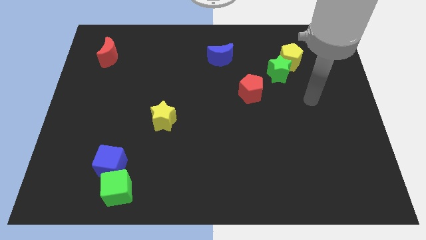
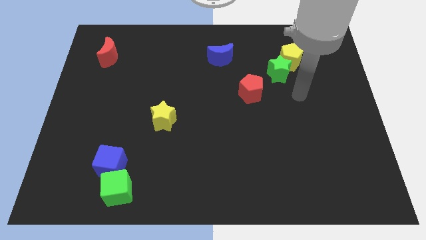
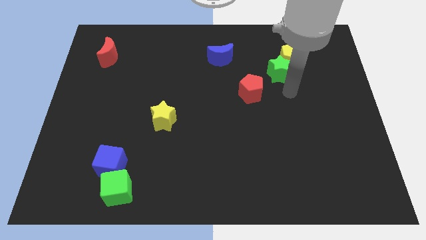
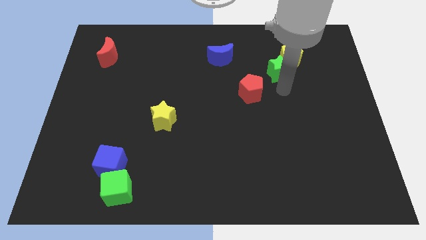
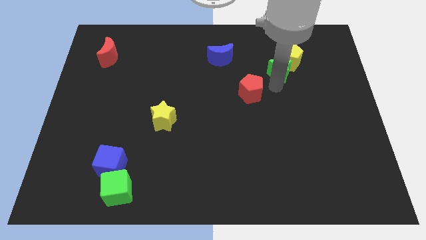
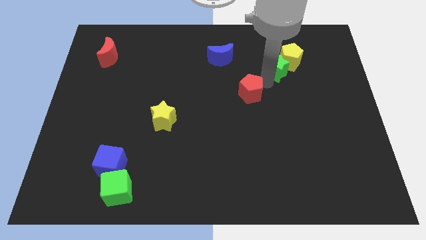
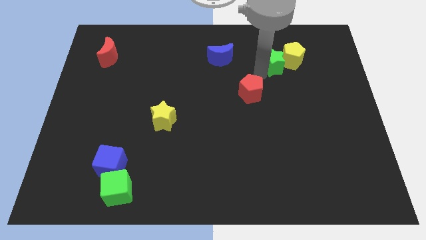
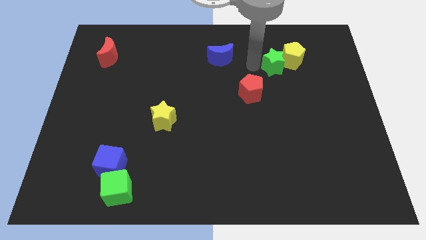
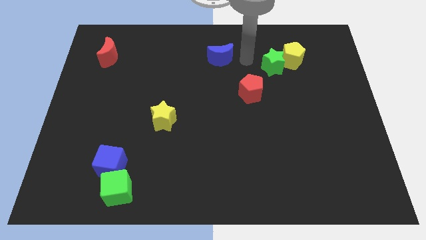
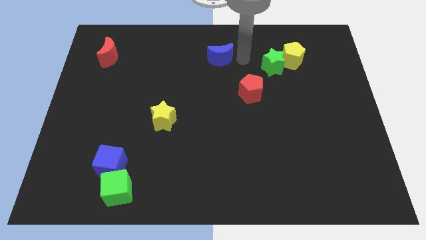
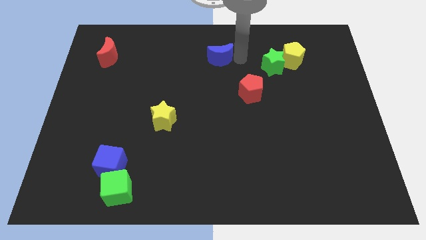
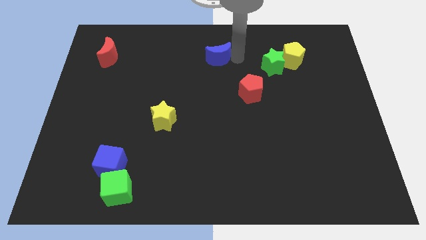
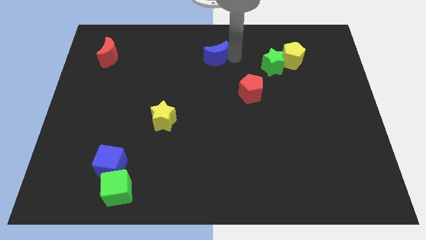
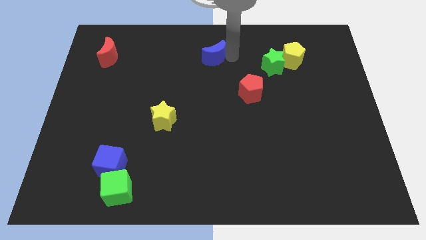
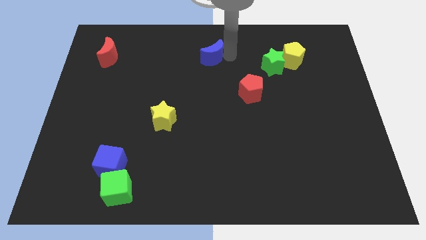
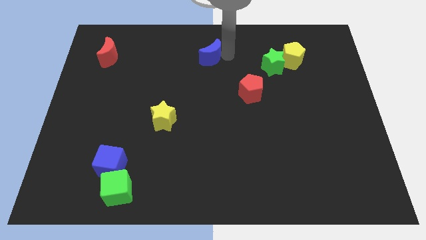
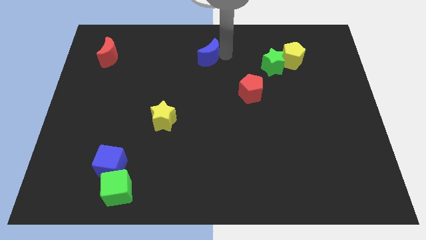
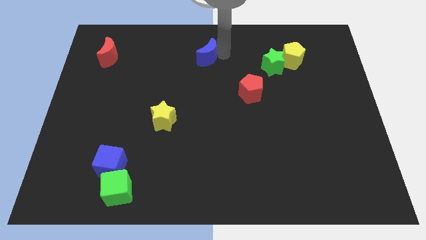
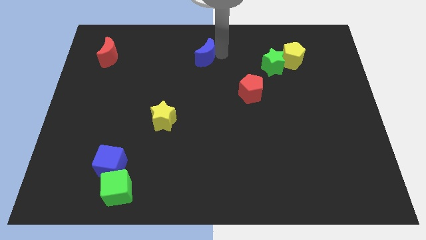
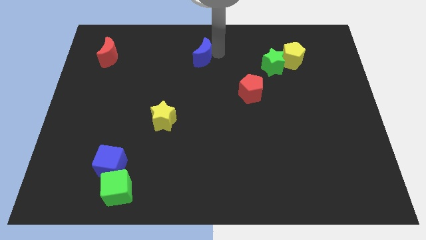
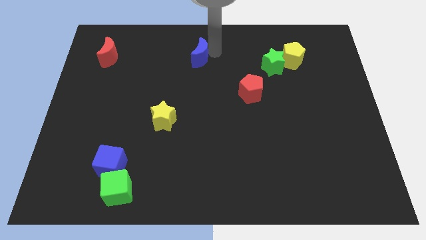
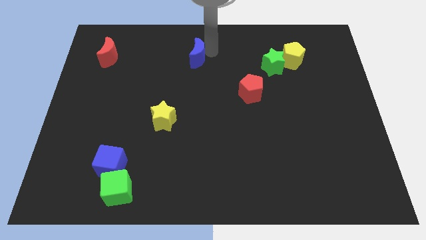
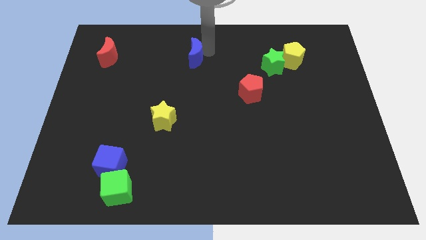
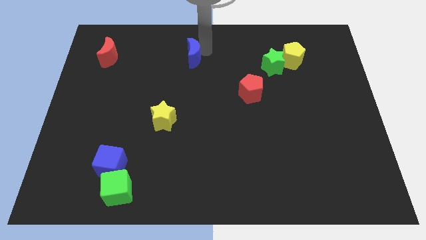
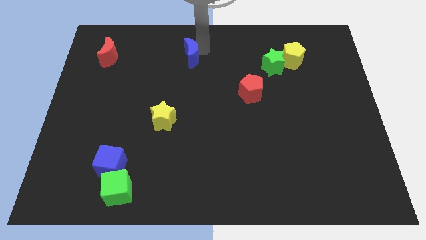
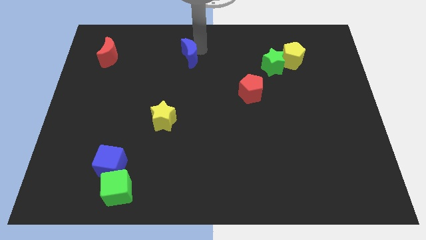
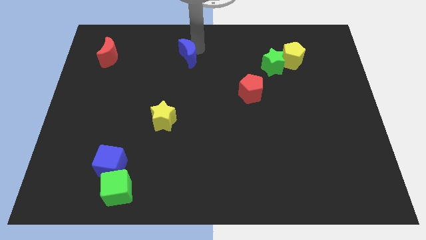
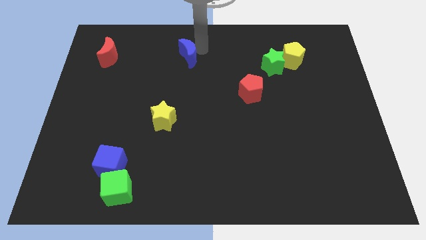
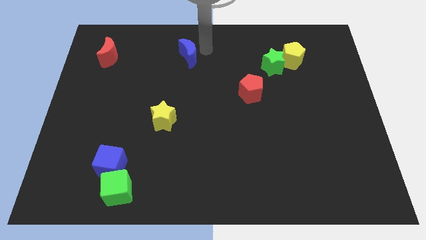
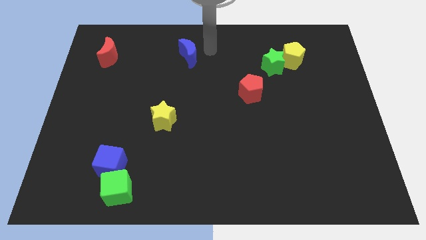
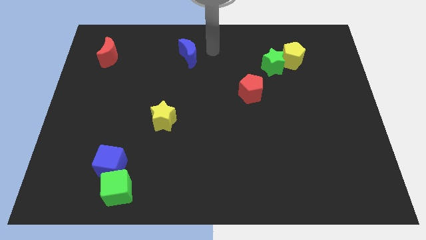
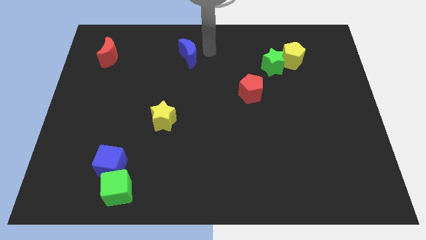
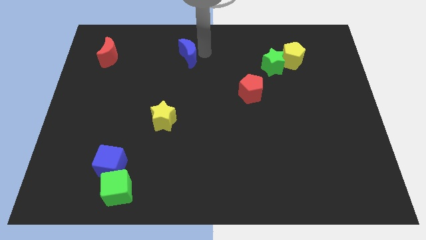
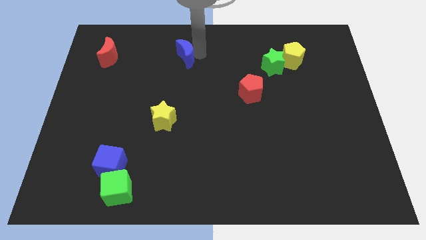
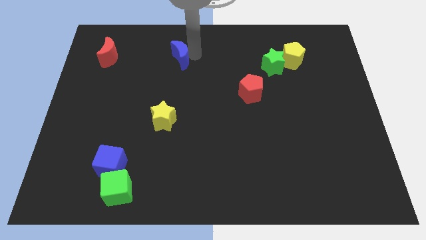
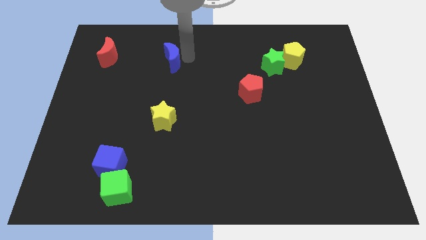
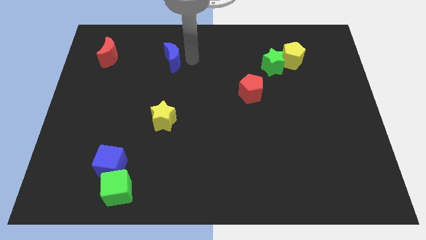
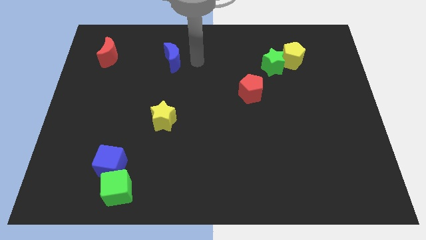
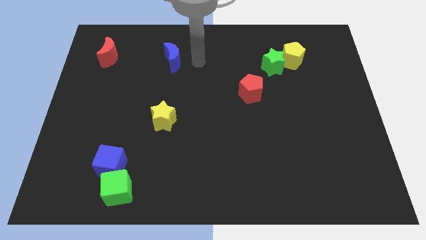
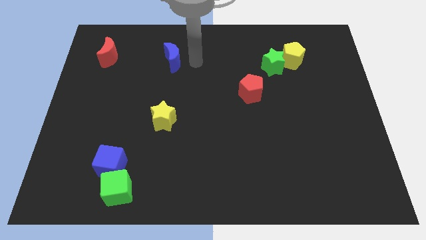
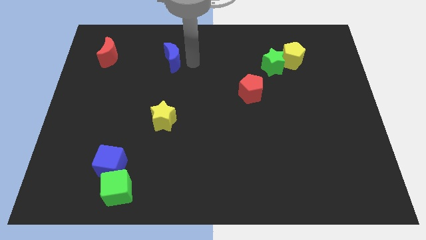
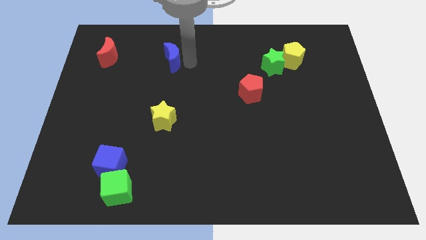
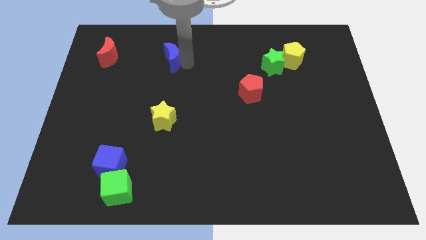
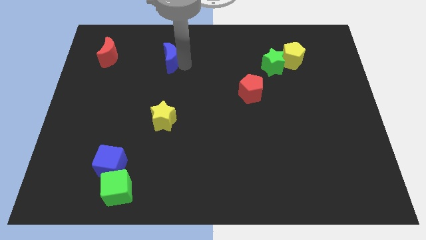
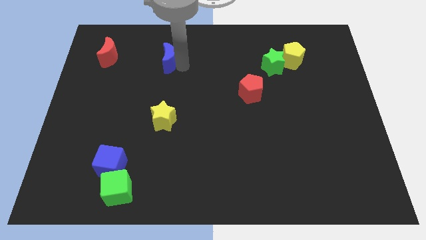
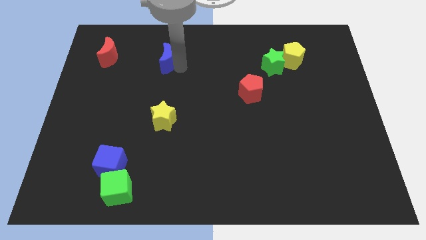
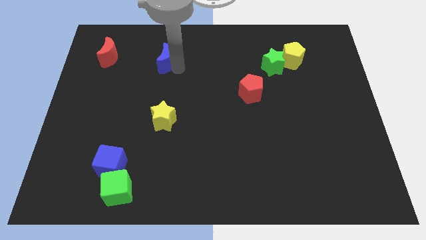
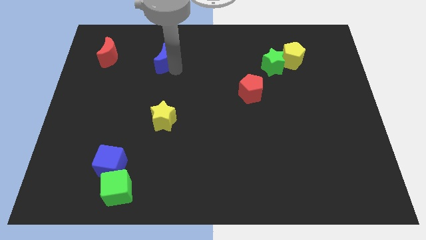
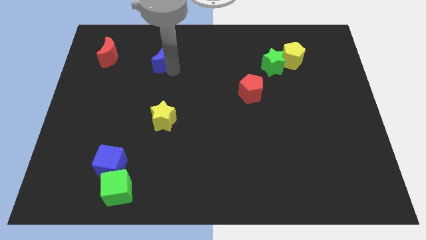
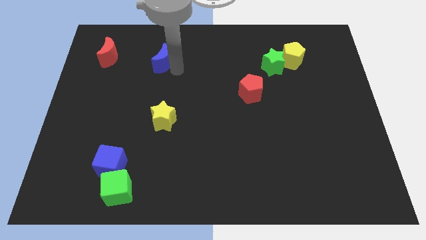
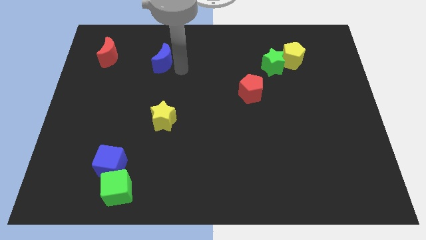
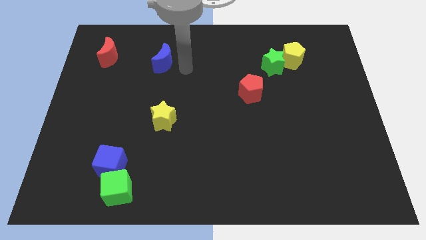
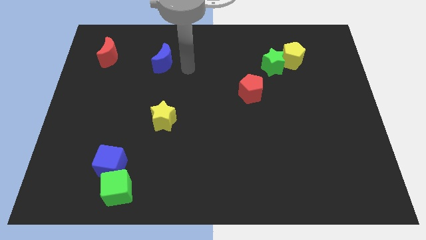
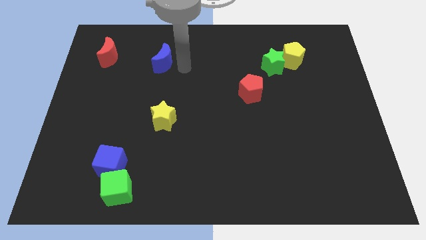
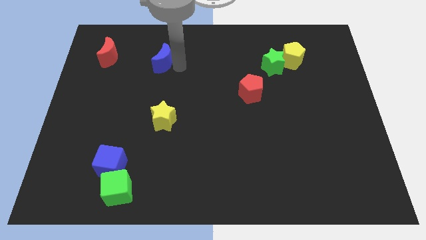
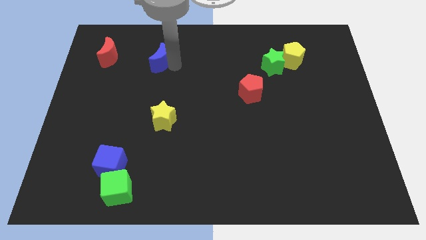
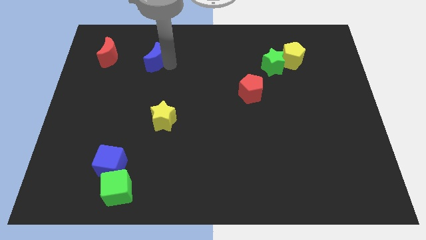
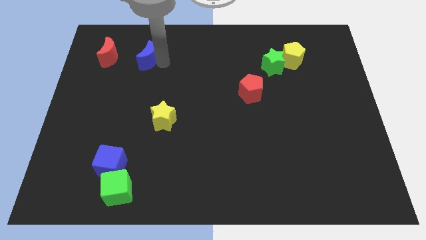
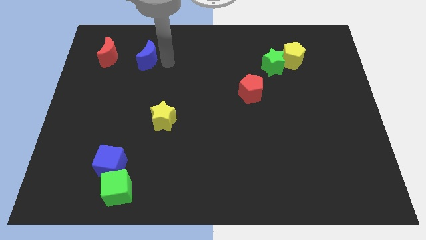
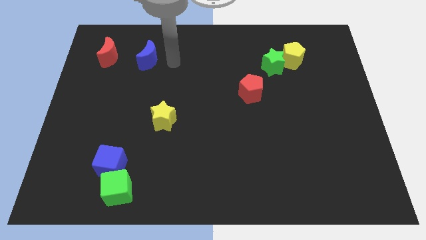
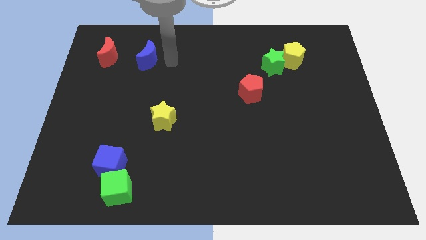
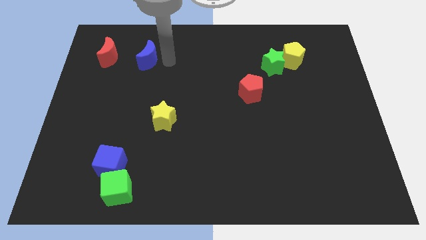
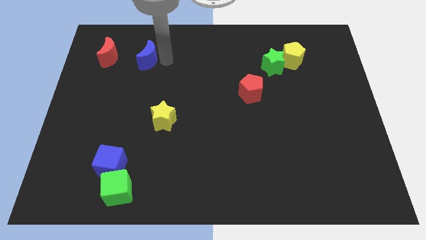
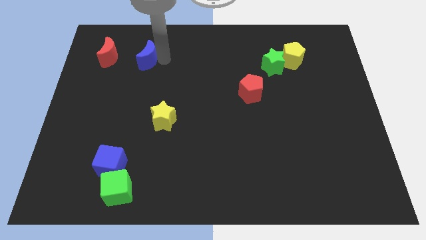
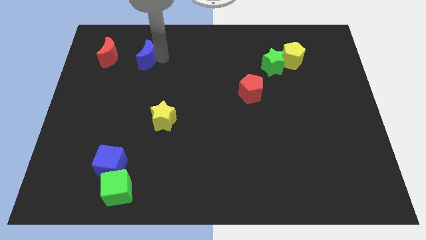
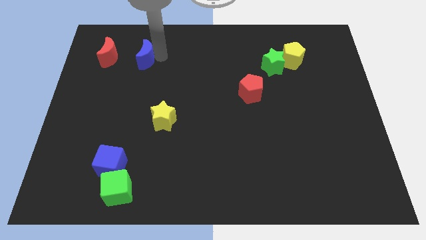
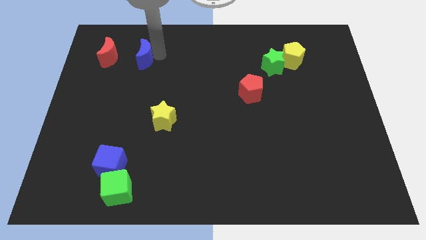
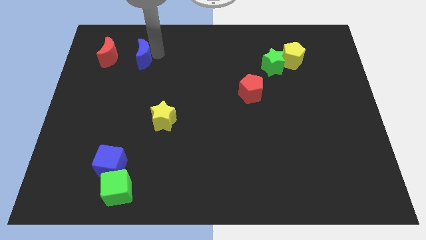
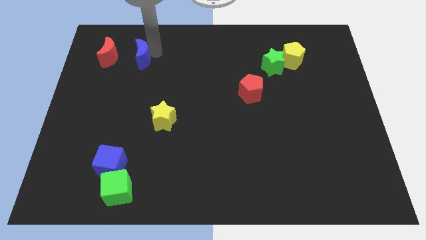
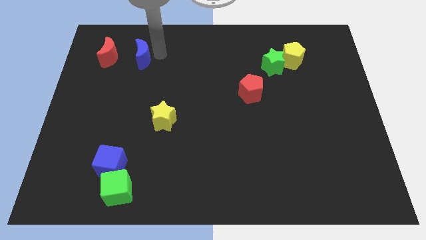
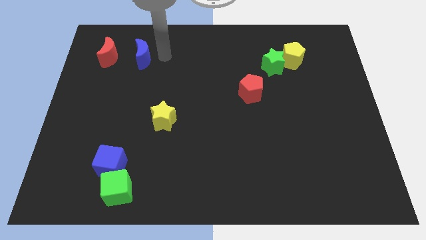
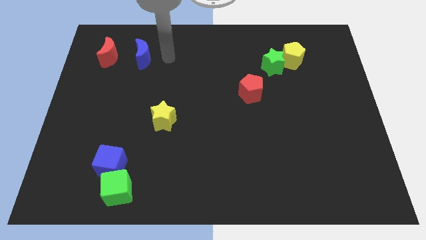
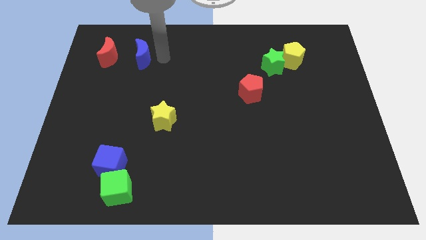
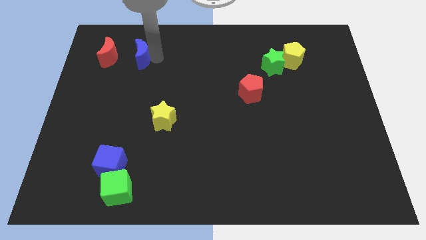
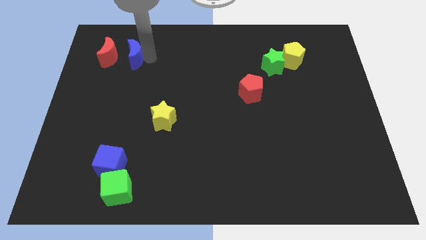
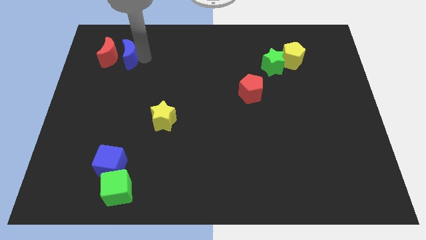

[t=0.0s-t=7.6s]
put the blue moon towards the red moon

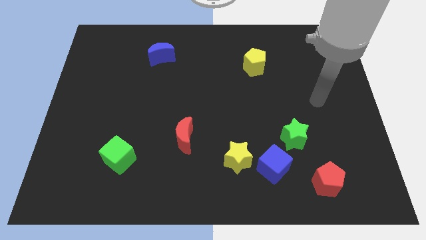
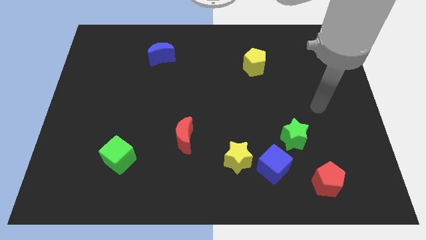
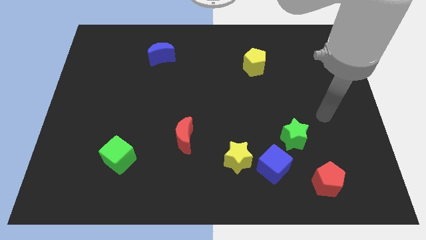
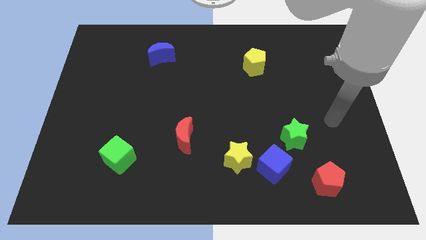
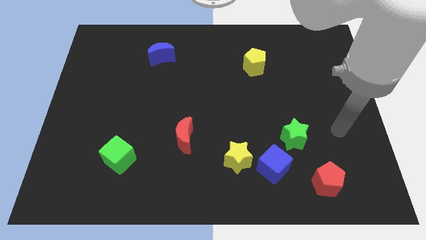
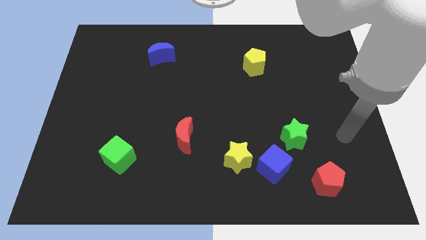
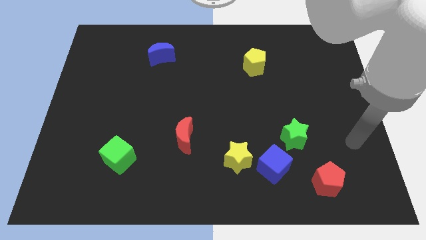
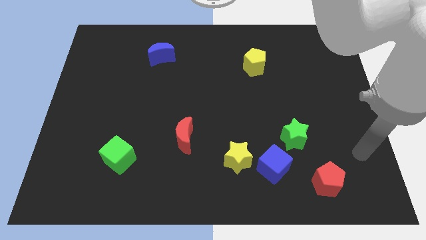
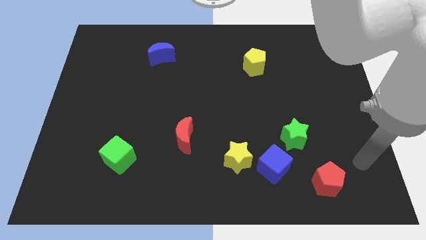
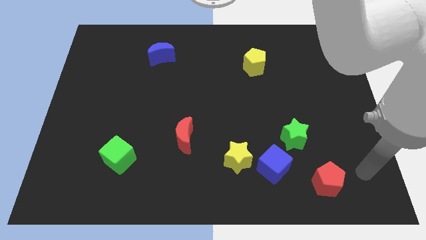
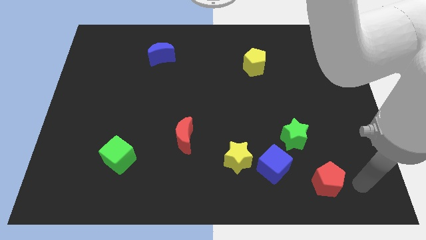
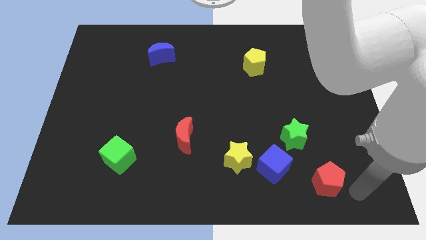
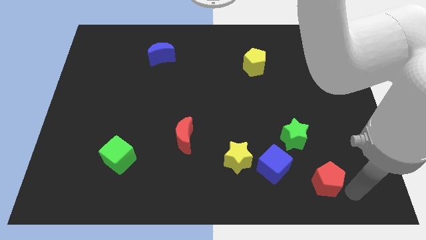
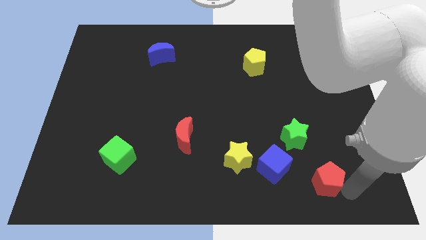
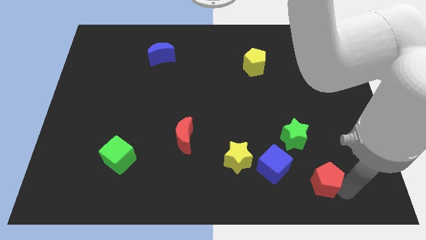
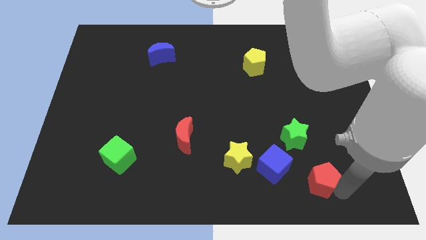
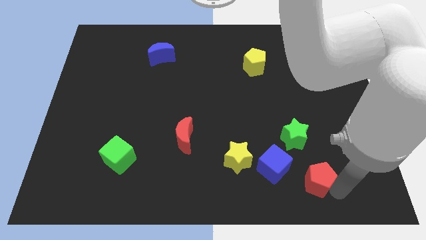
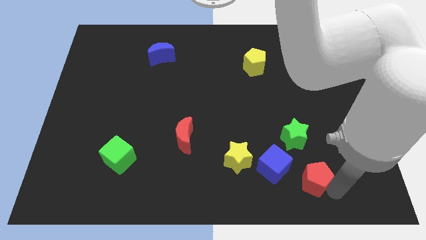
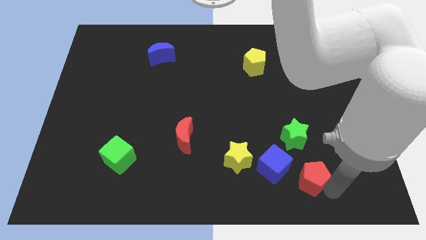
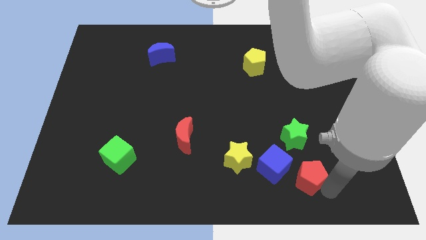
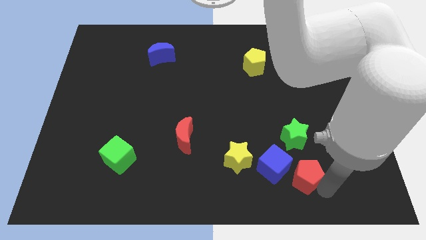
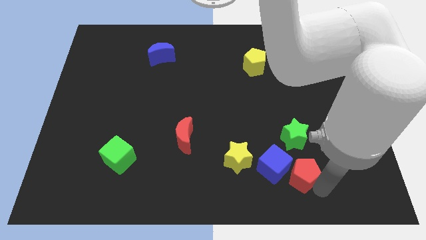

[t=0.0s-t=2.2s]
put the red pentagon next to the blue cube
